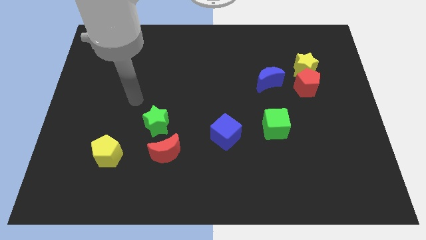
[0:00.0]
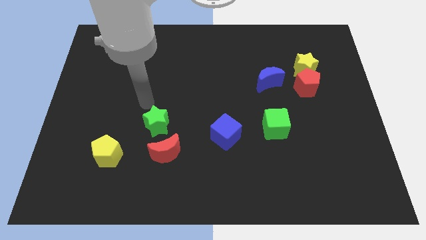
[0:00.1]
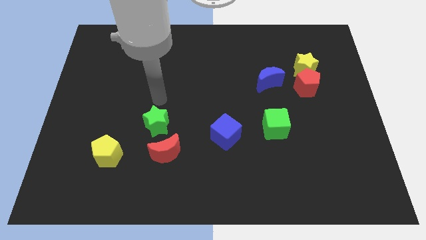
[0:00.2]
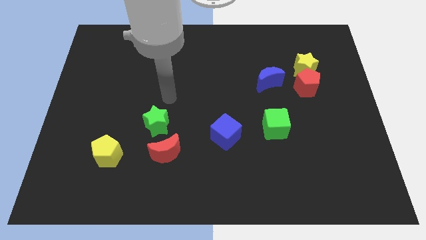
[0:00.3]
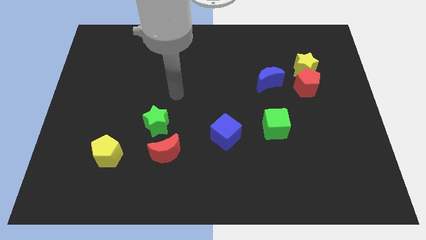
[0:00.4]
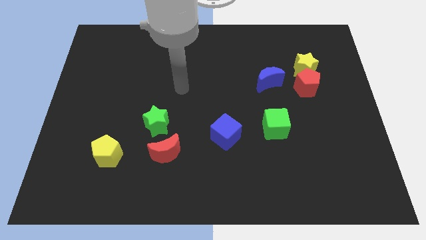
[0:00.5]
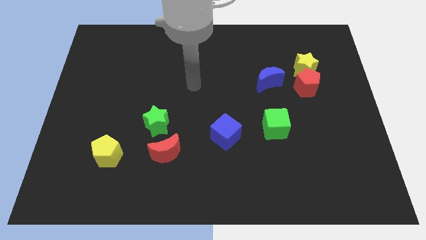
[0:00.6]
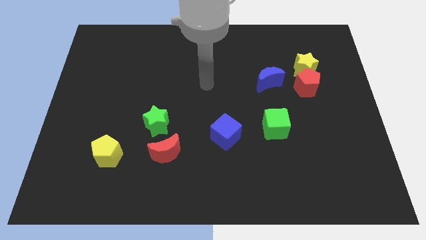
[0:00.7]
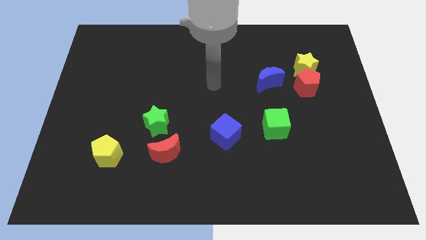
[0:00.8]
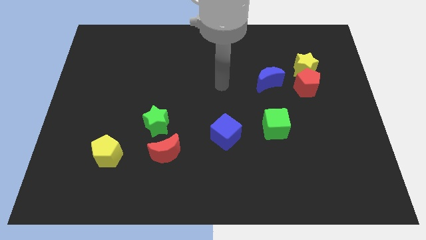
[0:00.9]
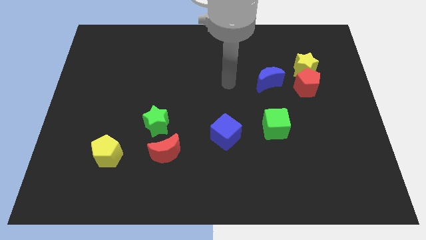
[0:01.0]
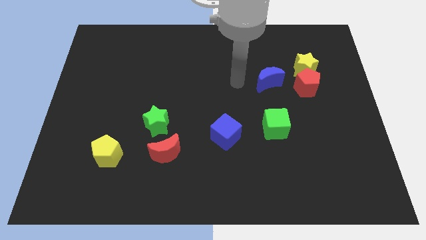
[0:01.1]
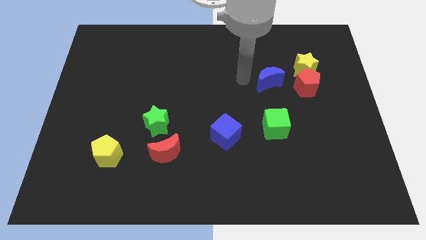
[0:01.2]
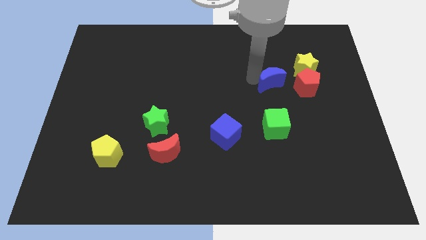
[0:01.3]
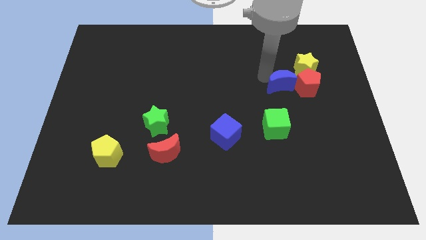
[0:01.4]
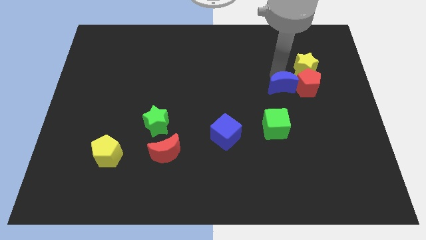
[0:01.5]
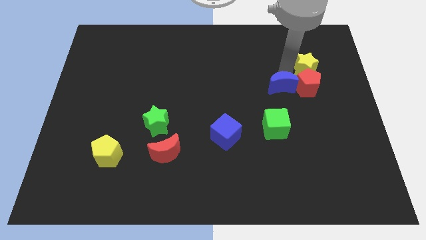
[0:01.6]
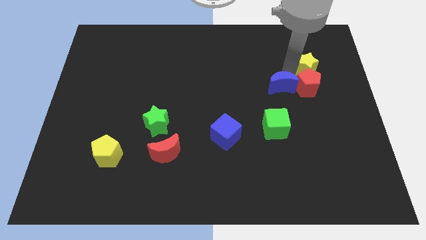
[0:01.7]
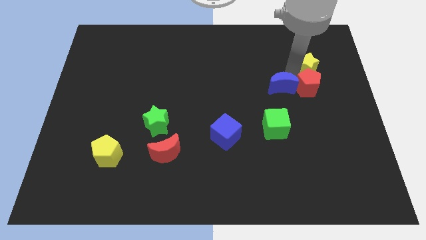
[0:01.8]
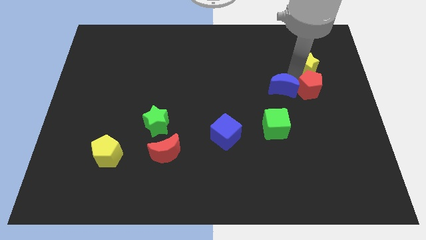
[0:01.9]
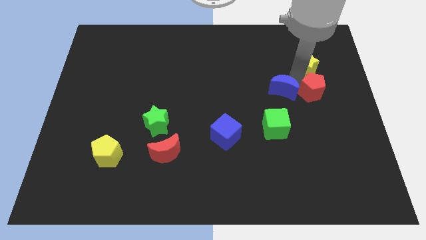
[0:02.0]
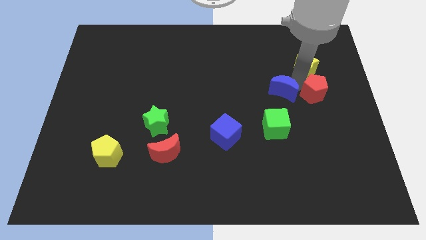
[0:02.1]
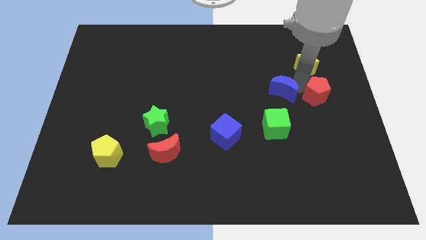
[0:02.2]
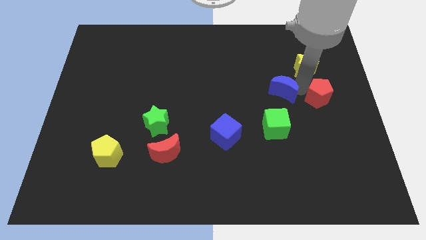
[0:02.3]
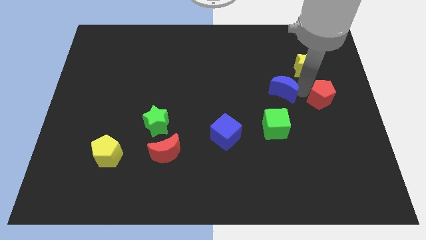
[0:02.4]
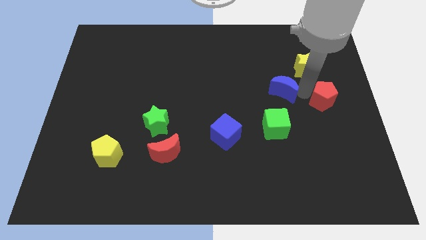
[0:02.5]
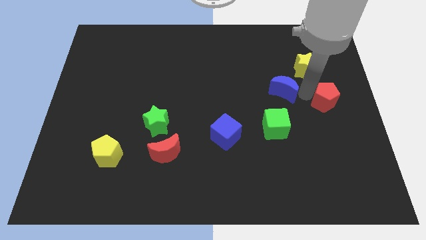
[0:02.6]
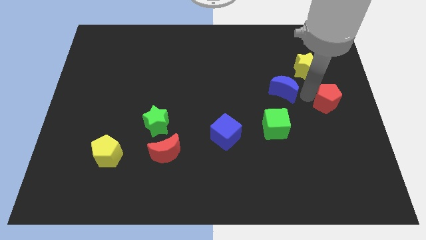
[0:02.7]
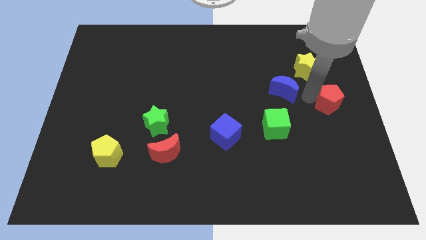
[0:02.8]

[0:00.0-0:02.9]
move the red pentagon away from the yellow star and blue moon

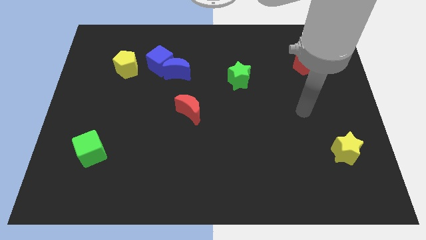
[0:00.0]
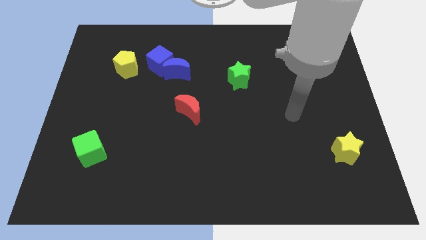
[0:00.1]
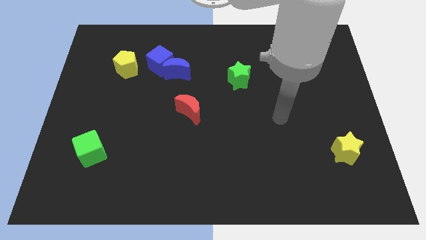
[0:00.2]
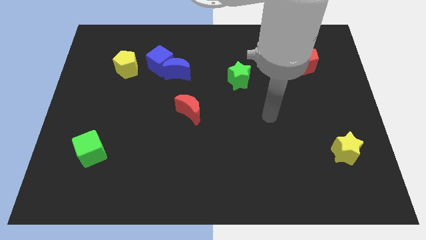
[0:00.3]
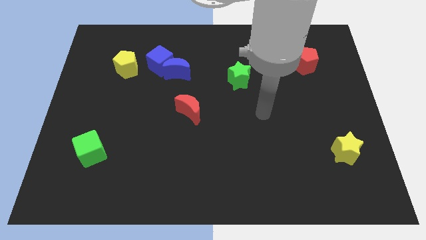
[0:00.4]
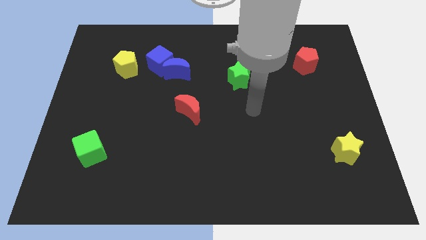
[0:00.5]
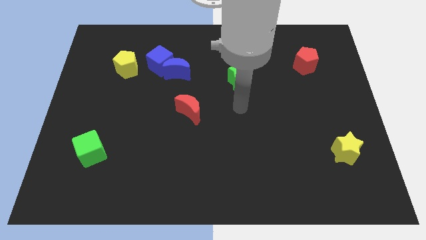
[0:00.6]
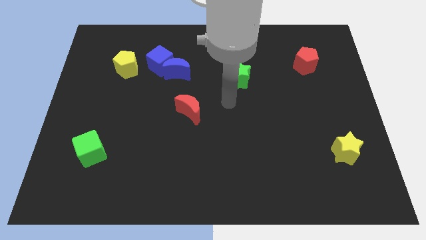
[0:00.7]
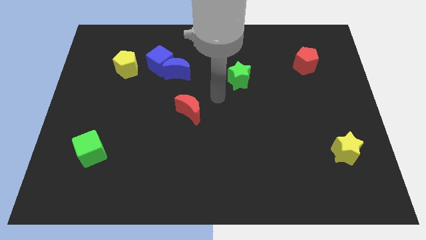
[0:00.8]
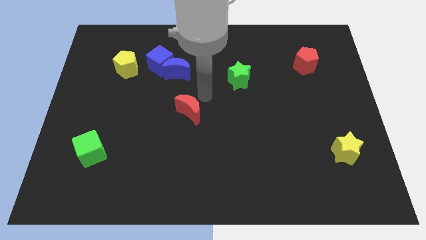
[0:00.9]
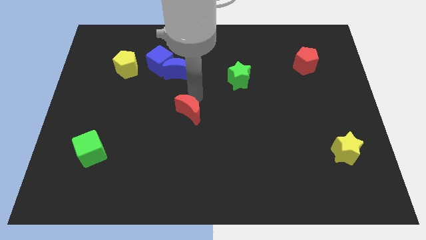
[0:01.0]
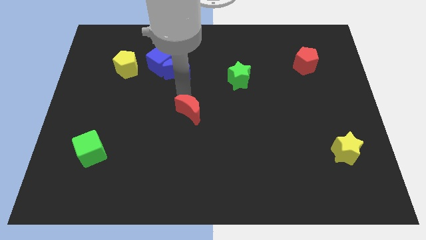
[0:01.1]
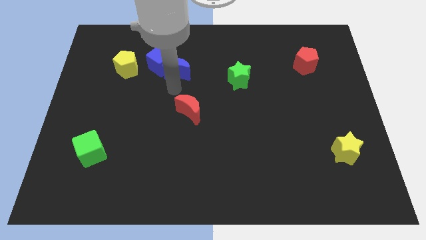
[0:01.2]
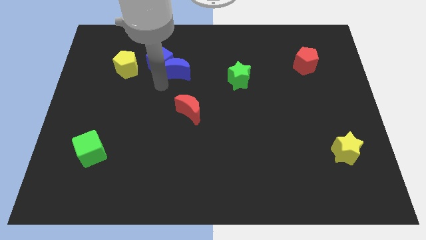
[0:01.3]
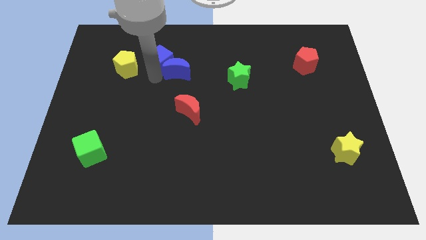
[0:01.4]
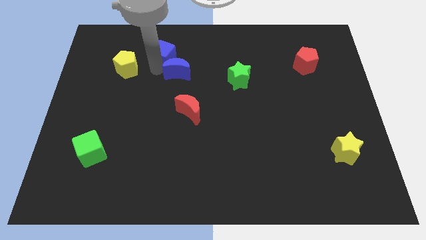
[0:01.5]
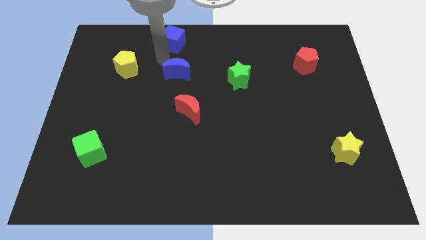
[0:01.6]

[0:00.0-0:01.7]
separate the blue moon from the blue cube

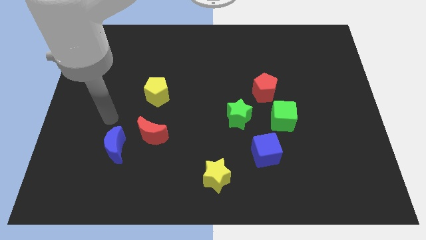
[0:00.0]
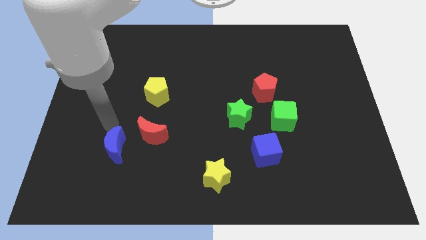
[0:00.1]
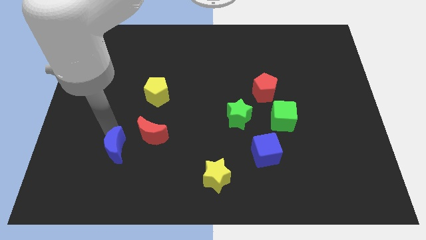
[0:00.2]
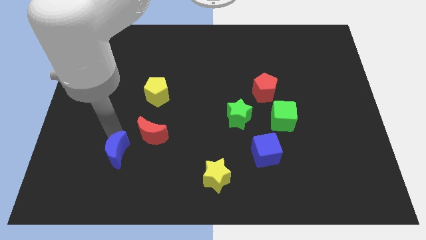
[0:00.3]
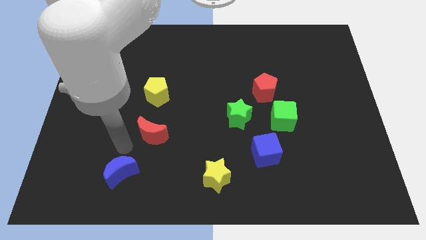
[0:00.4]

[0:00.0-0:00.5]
separate the red moon from the blue moon

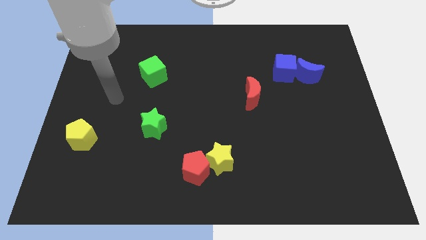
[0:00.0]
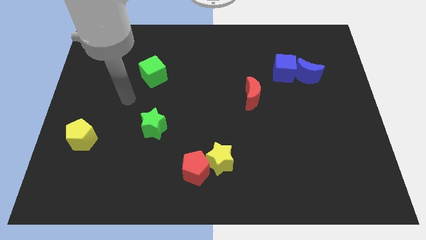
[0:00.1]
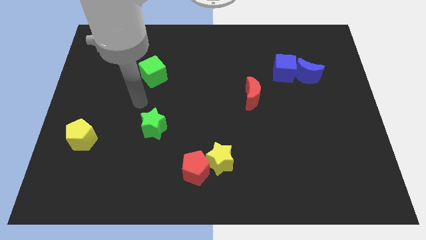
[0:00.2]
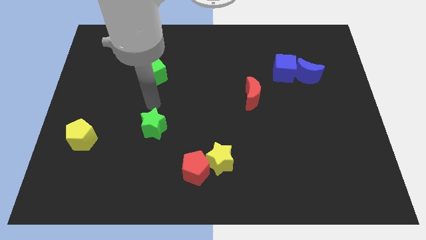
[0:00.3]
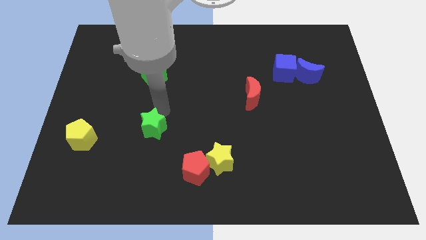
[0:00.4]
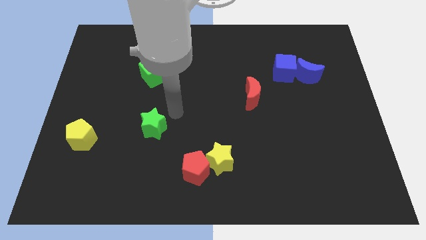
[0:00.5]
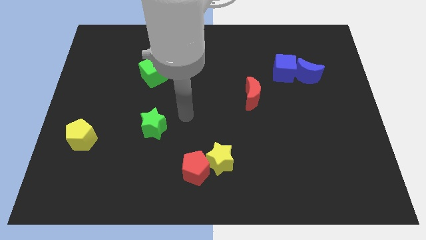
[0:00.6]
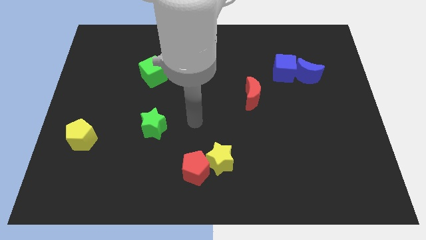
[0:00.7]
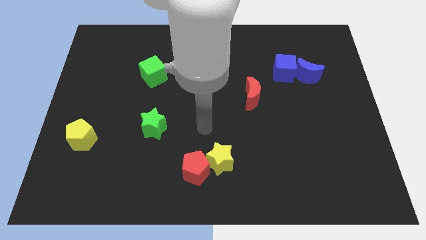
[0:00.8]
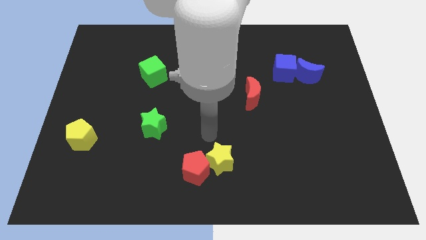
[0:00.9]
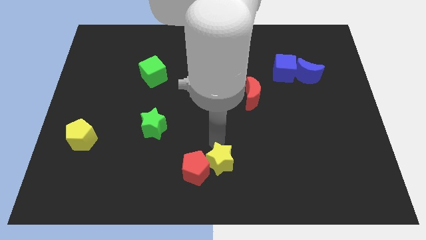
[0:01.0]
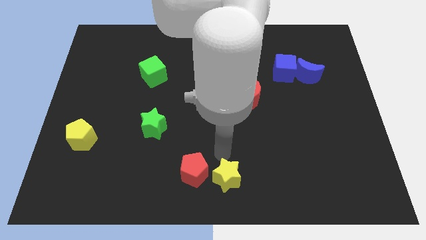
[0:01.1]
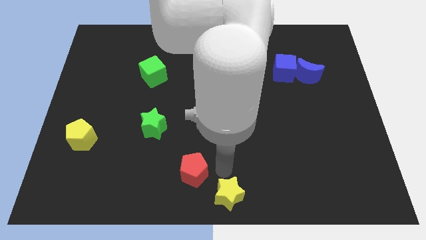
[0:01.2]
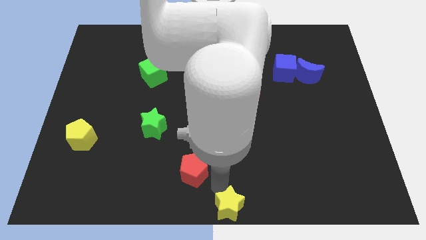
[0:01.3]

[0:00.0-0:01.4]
move the red pentagon away from the yellow star

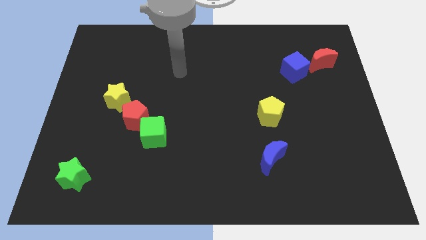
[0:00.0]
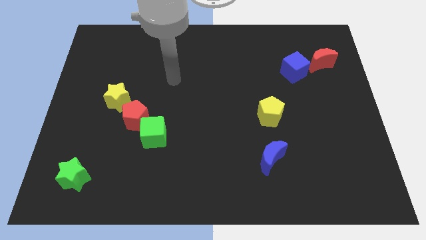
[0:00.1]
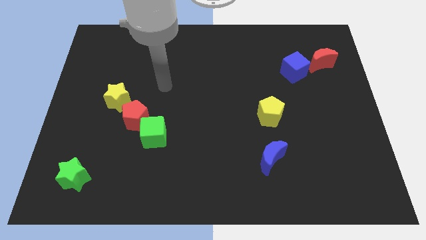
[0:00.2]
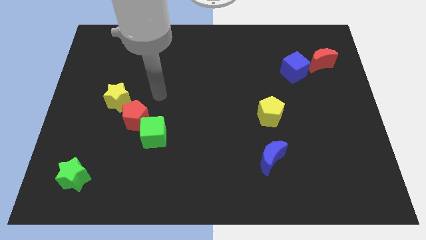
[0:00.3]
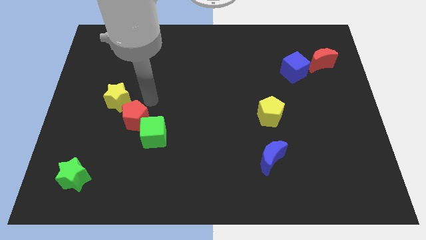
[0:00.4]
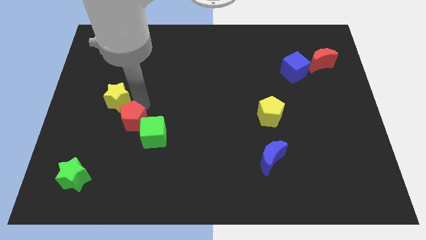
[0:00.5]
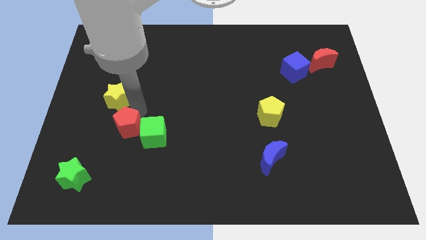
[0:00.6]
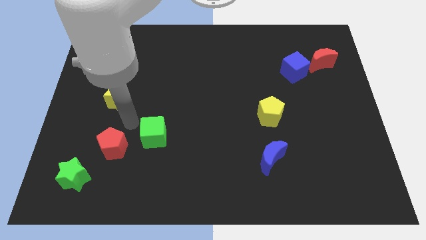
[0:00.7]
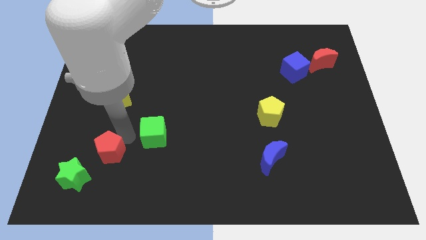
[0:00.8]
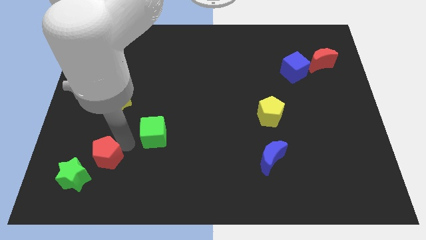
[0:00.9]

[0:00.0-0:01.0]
separate the green cube from the red pentagon

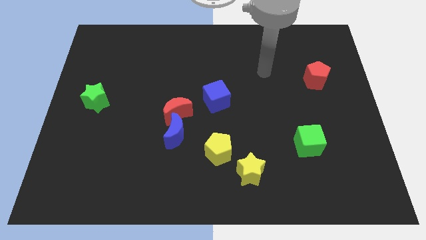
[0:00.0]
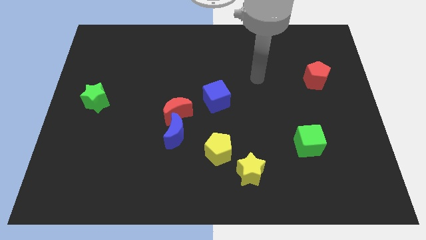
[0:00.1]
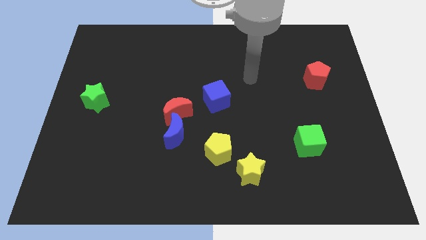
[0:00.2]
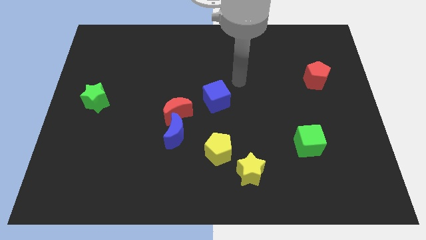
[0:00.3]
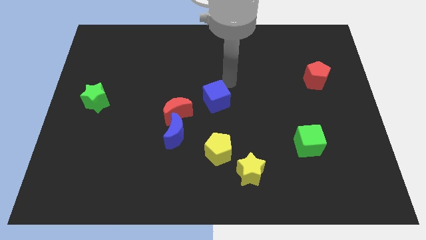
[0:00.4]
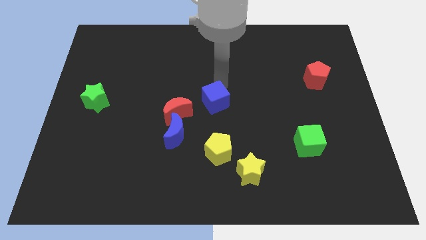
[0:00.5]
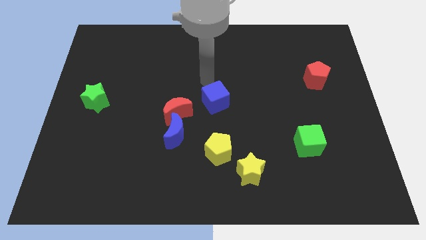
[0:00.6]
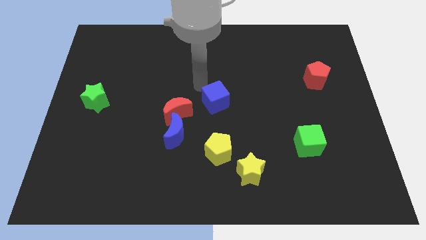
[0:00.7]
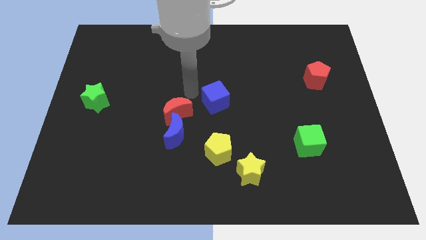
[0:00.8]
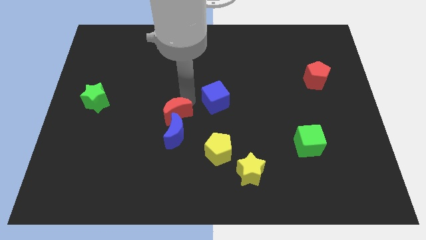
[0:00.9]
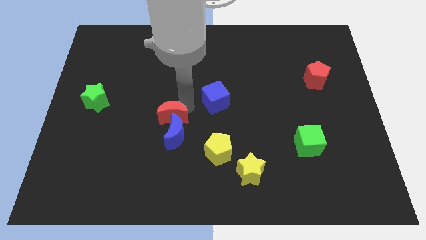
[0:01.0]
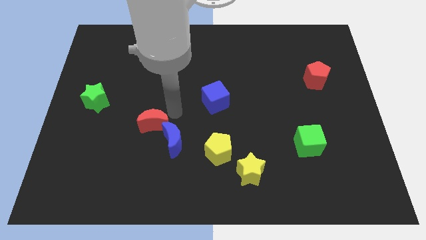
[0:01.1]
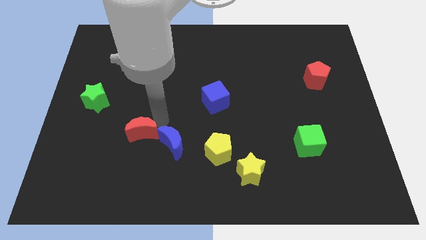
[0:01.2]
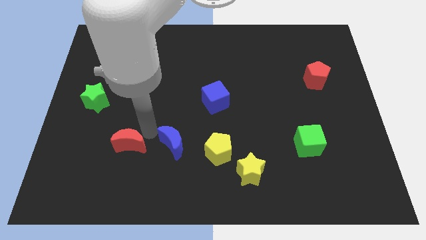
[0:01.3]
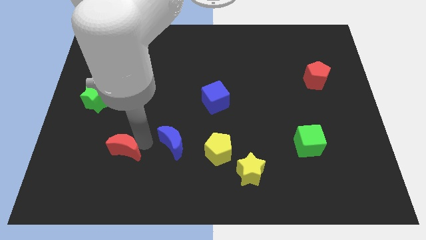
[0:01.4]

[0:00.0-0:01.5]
move the blue moon away from the red moon

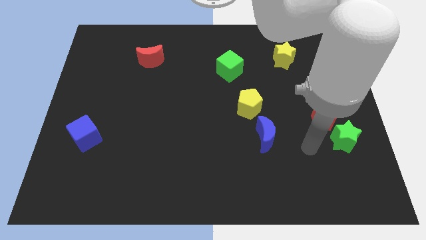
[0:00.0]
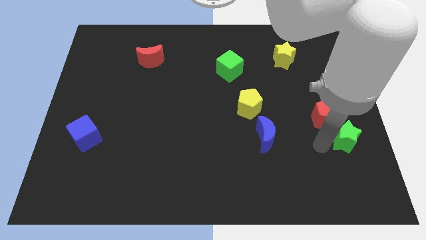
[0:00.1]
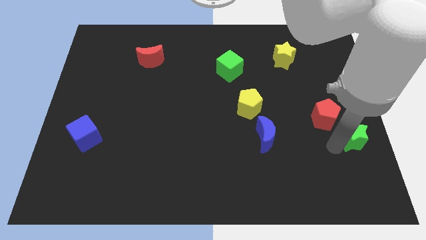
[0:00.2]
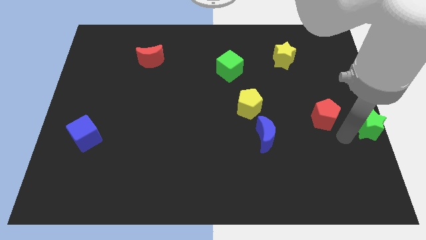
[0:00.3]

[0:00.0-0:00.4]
pull the red pentagon apart from the green star
